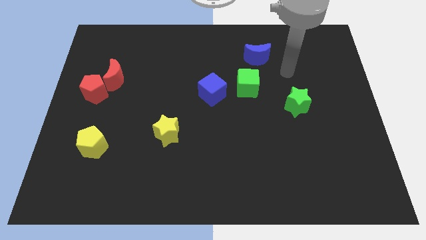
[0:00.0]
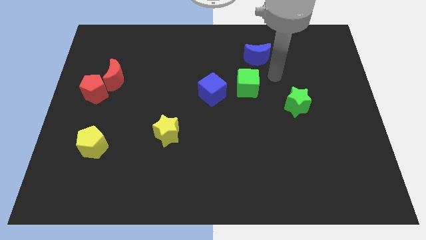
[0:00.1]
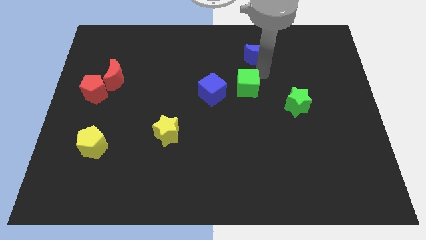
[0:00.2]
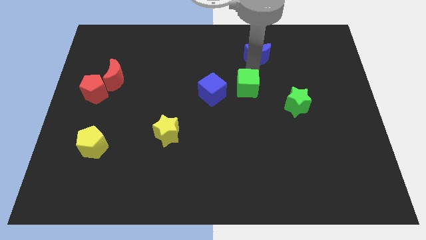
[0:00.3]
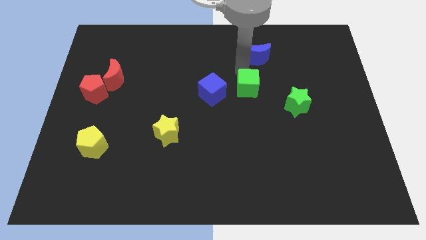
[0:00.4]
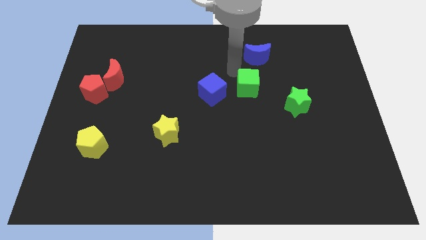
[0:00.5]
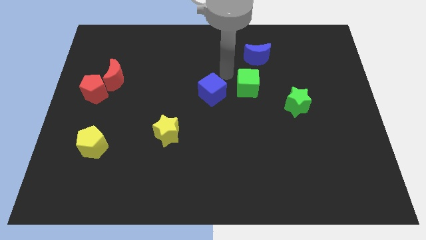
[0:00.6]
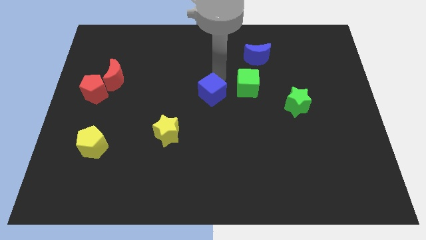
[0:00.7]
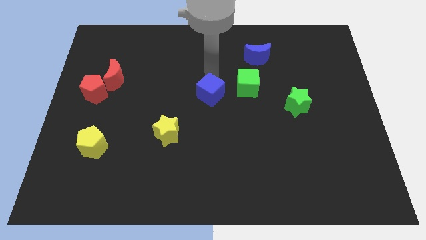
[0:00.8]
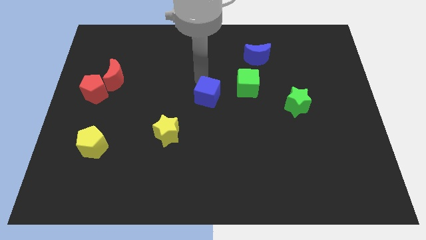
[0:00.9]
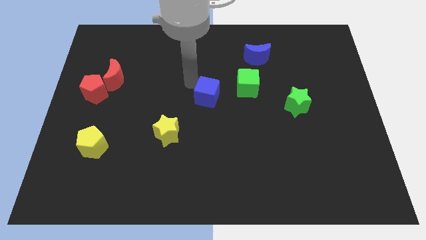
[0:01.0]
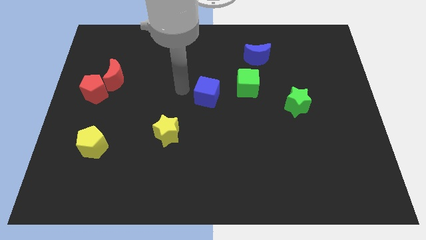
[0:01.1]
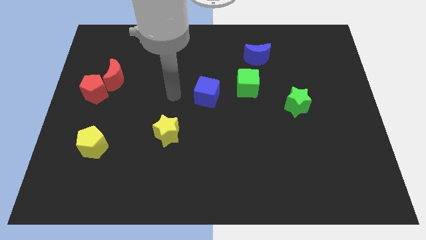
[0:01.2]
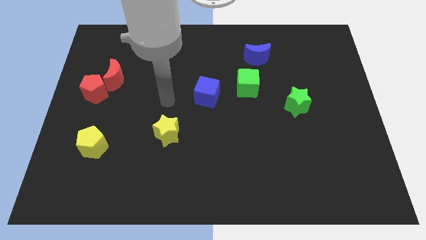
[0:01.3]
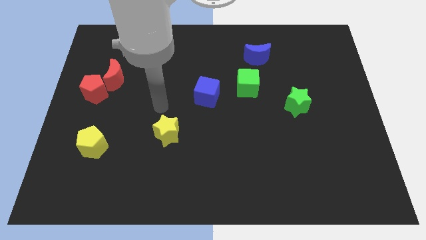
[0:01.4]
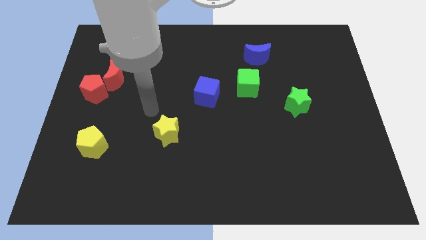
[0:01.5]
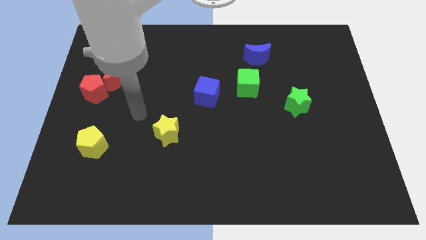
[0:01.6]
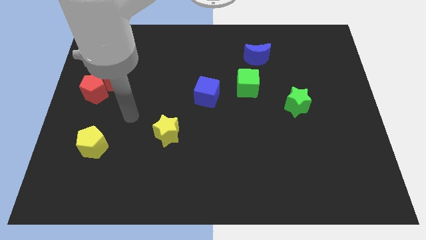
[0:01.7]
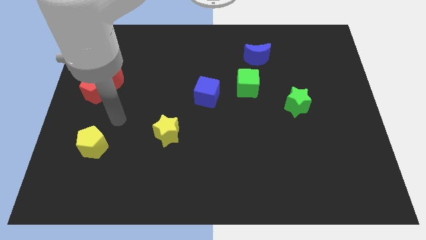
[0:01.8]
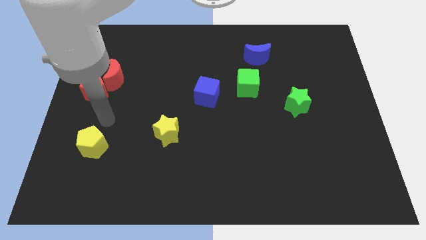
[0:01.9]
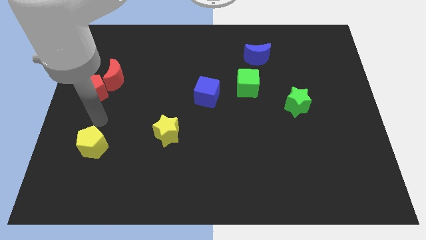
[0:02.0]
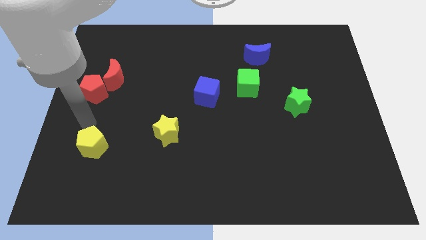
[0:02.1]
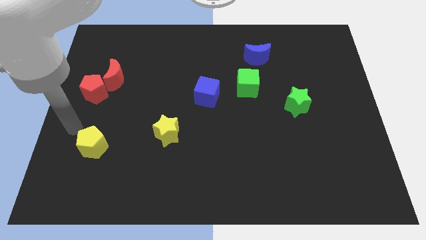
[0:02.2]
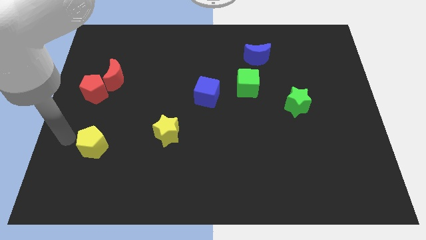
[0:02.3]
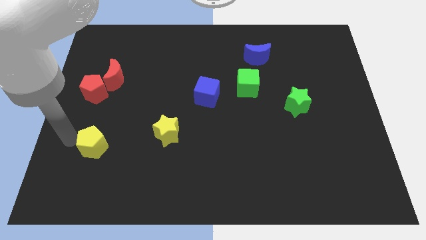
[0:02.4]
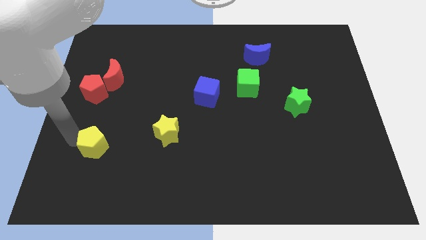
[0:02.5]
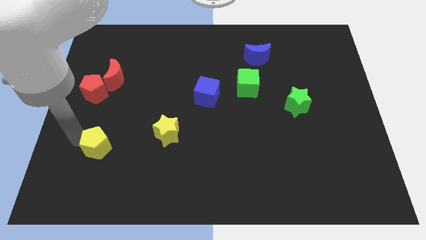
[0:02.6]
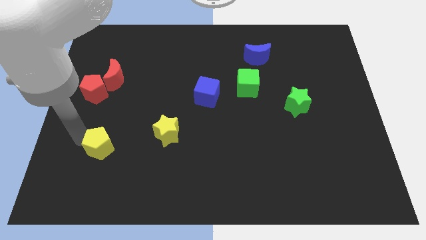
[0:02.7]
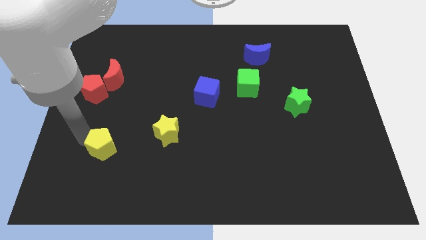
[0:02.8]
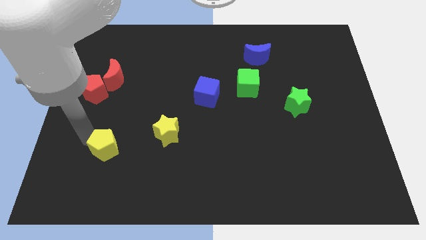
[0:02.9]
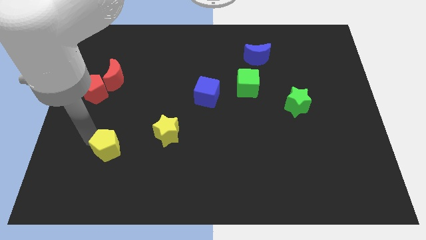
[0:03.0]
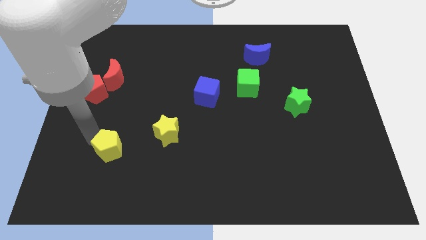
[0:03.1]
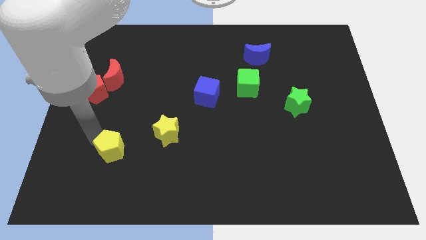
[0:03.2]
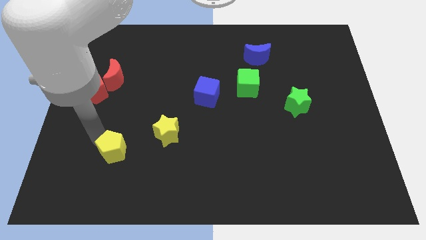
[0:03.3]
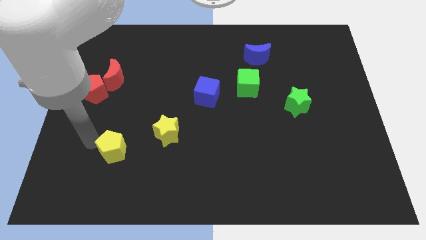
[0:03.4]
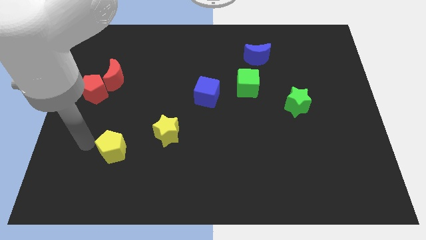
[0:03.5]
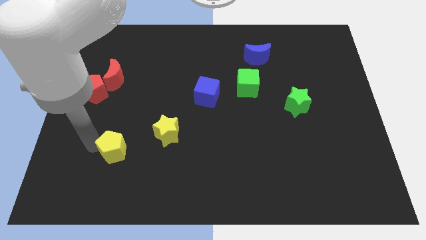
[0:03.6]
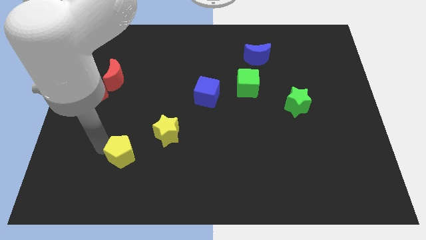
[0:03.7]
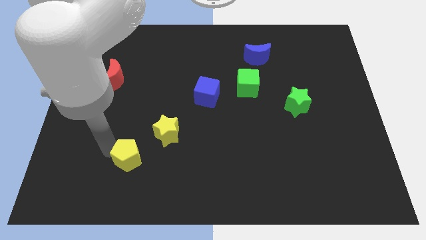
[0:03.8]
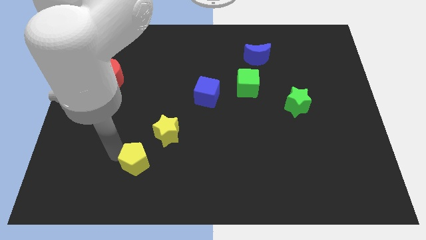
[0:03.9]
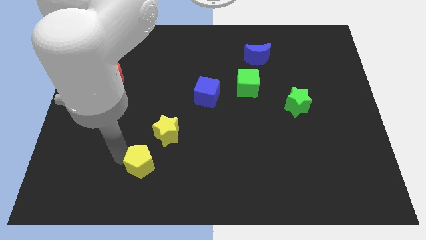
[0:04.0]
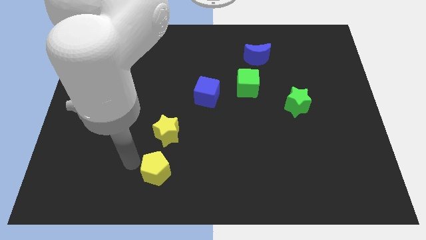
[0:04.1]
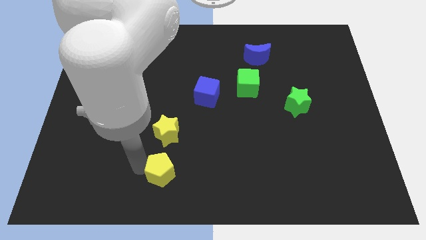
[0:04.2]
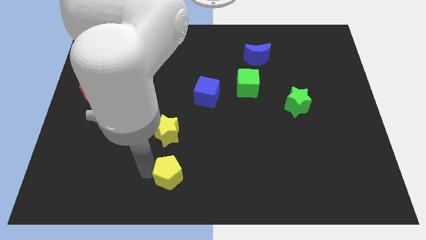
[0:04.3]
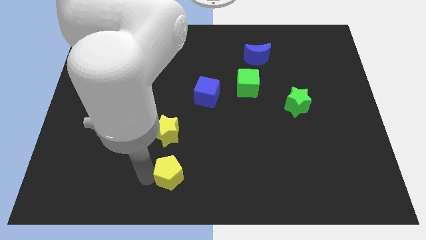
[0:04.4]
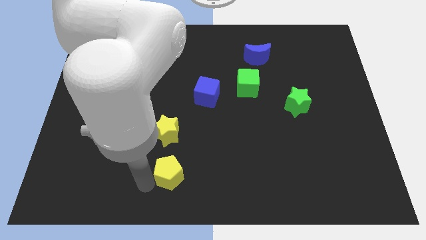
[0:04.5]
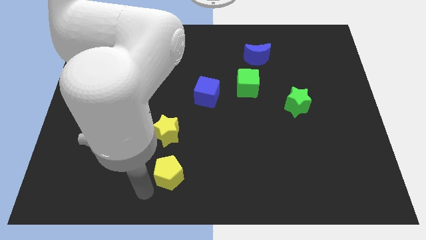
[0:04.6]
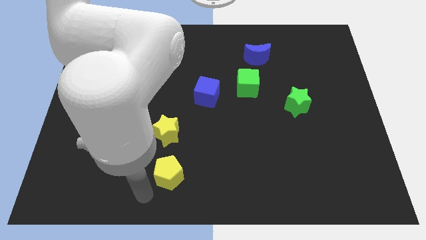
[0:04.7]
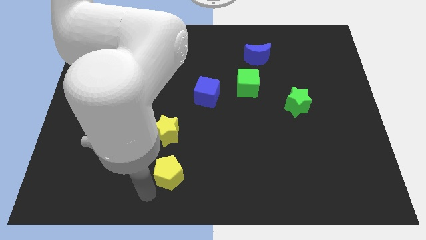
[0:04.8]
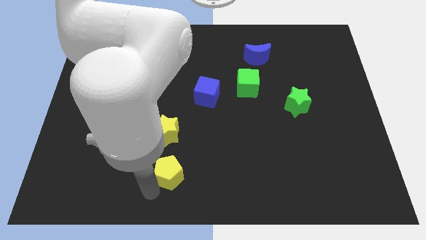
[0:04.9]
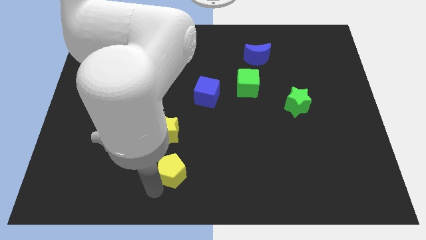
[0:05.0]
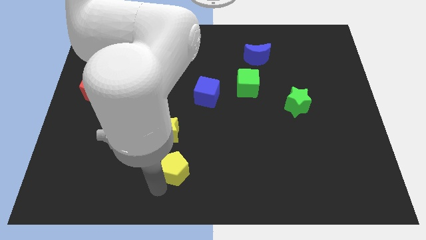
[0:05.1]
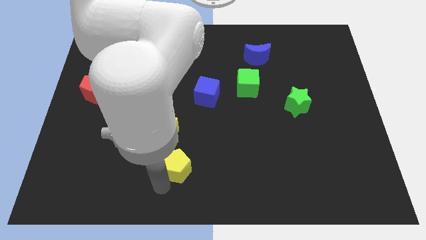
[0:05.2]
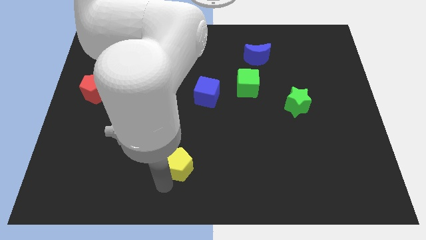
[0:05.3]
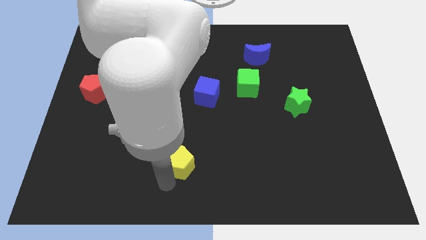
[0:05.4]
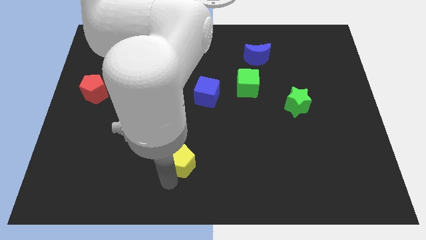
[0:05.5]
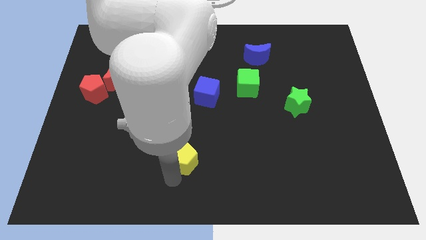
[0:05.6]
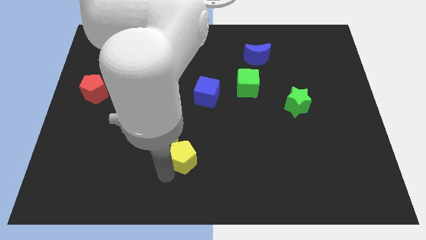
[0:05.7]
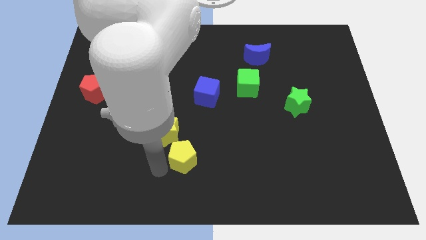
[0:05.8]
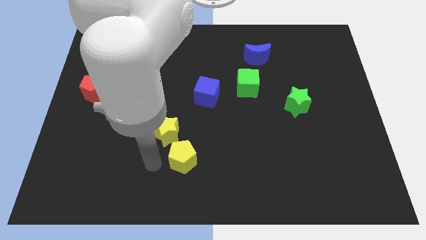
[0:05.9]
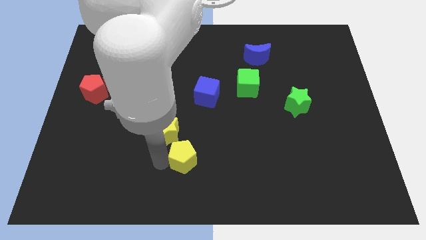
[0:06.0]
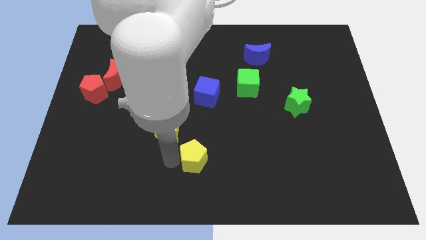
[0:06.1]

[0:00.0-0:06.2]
move the yellow pentagon right

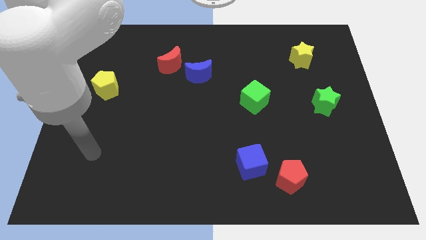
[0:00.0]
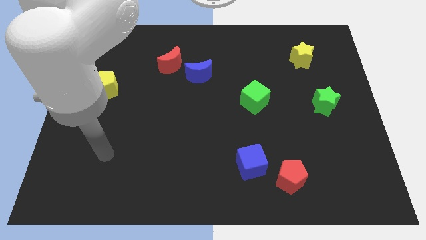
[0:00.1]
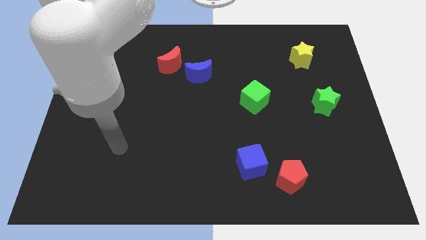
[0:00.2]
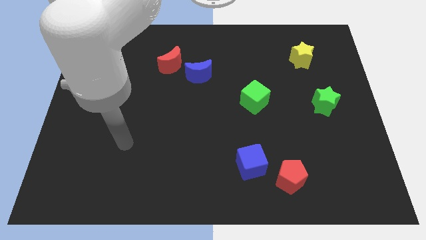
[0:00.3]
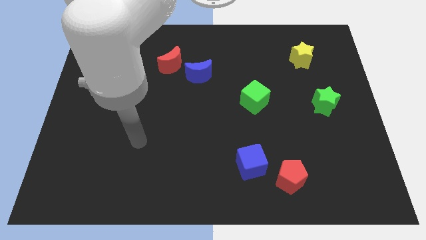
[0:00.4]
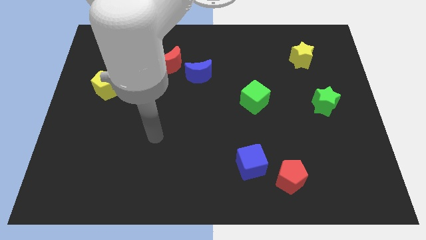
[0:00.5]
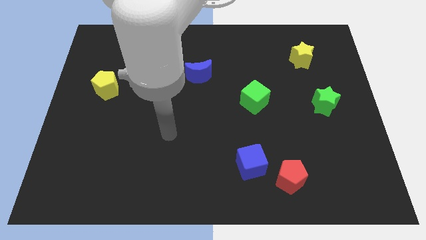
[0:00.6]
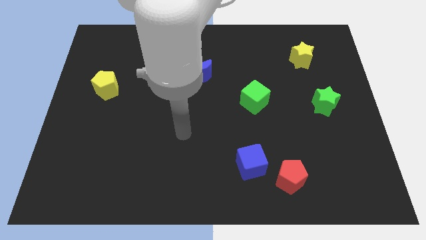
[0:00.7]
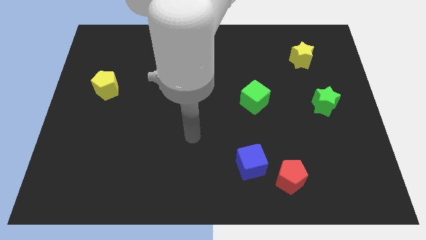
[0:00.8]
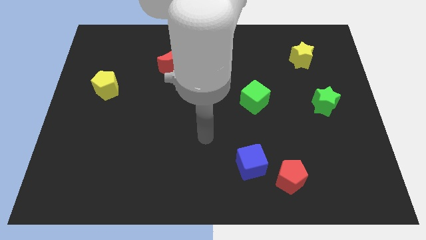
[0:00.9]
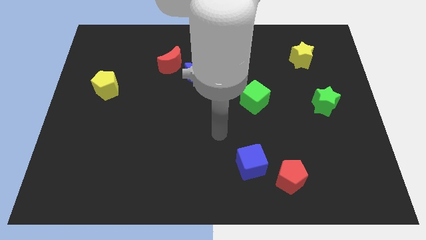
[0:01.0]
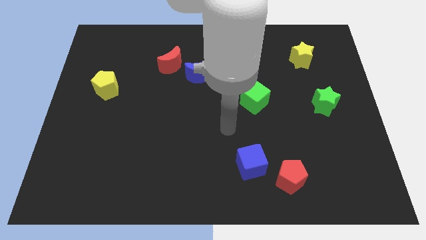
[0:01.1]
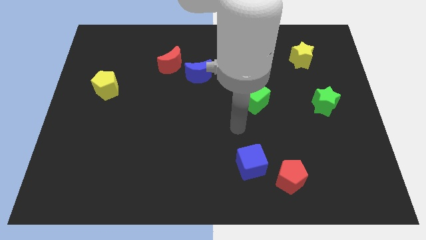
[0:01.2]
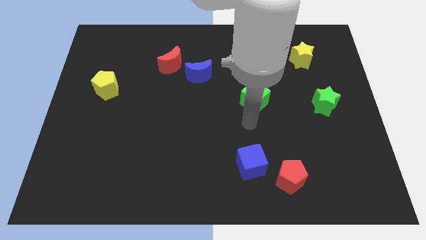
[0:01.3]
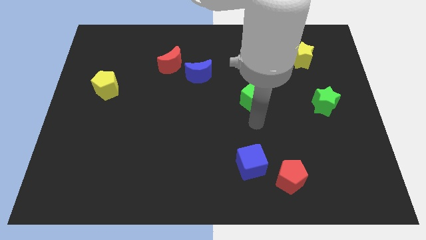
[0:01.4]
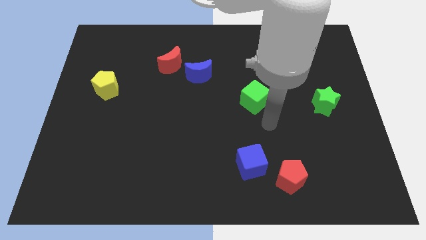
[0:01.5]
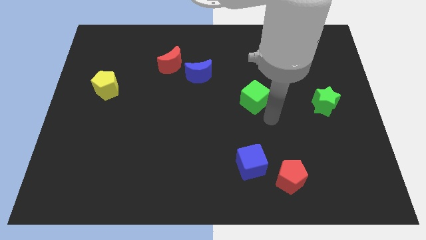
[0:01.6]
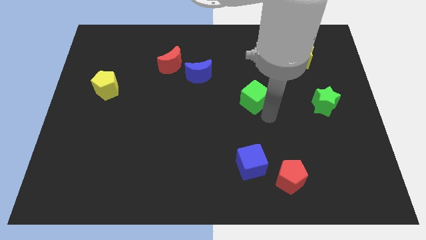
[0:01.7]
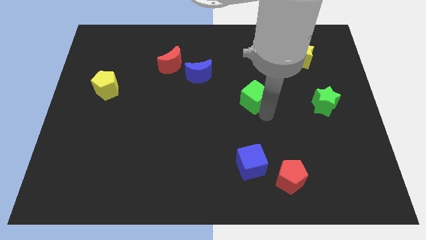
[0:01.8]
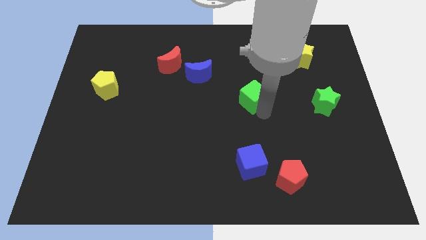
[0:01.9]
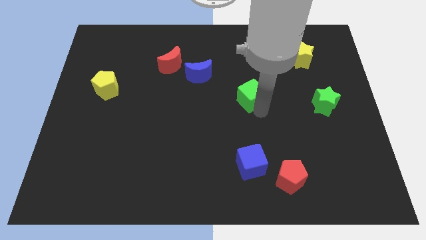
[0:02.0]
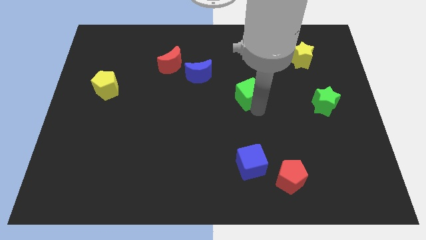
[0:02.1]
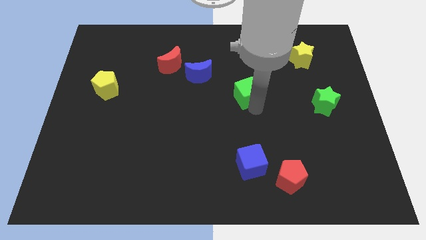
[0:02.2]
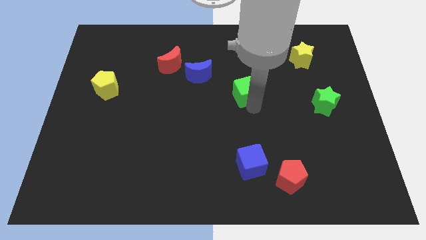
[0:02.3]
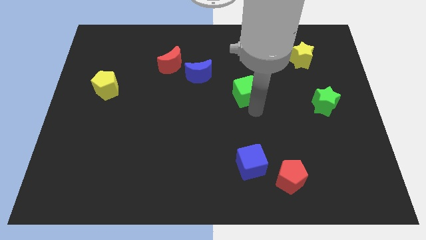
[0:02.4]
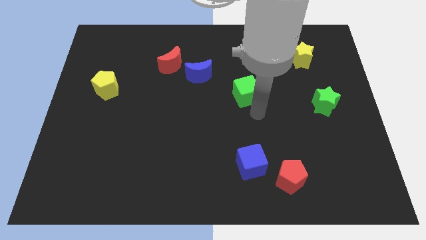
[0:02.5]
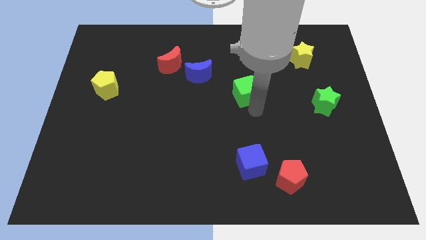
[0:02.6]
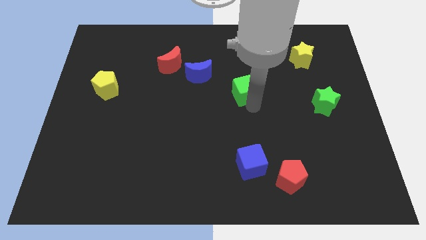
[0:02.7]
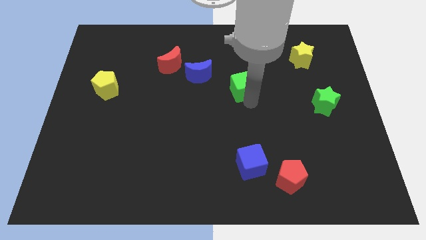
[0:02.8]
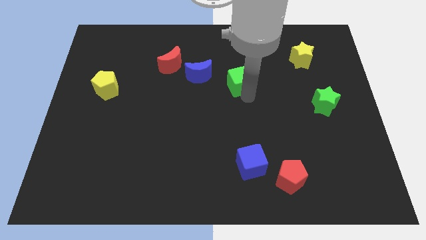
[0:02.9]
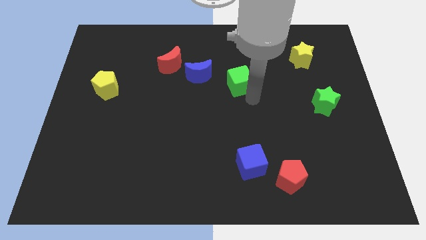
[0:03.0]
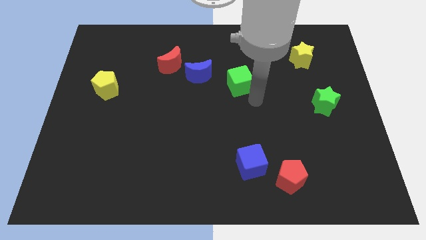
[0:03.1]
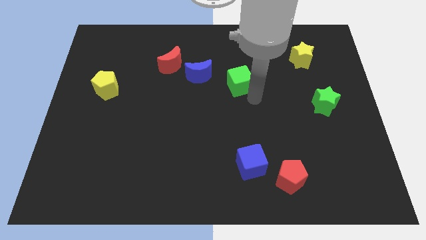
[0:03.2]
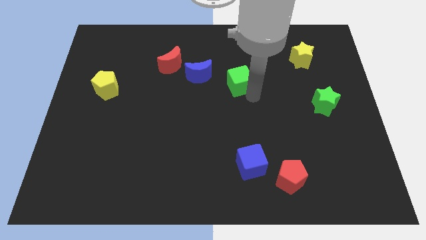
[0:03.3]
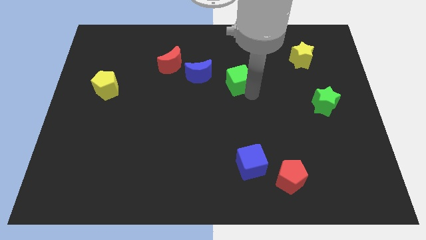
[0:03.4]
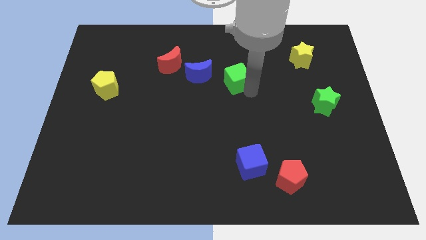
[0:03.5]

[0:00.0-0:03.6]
slide the green cube a little bit up and left
